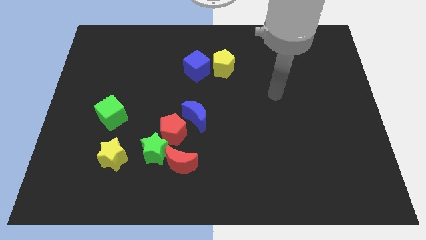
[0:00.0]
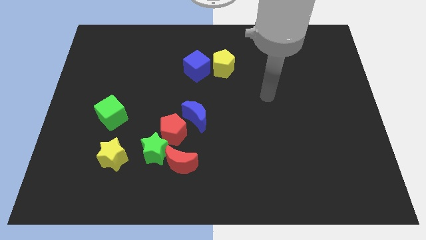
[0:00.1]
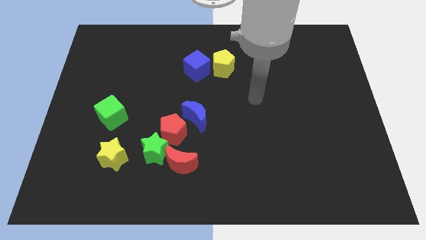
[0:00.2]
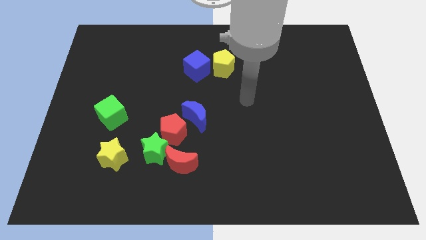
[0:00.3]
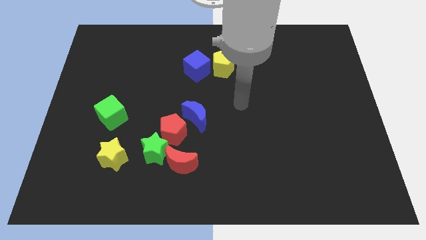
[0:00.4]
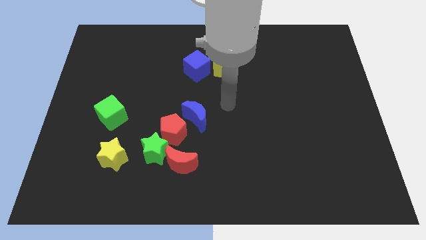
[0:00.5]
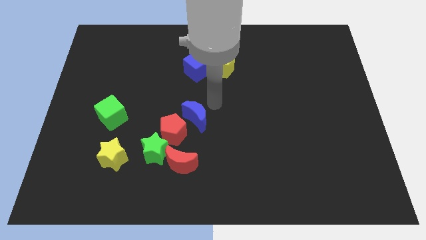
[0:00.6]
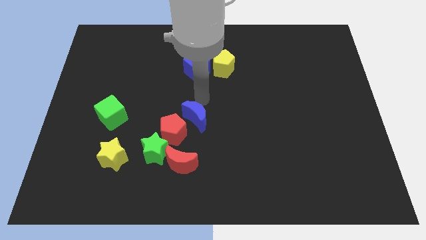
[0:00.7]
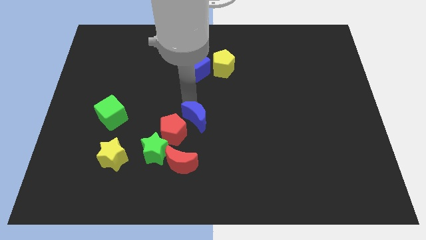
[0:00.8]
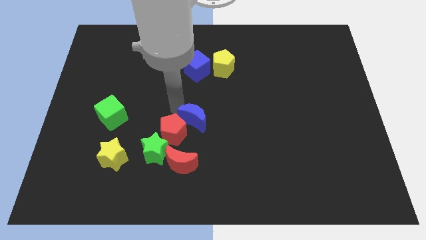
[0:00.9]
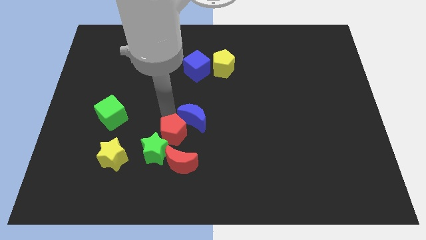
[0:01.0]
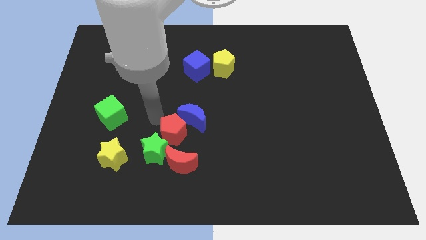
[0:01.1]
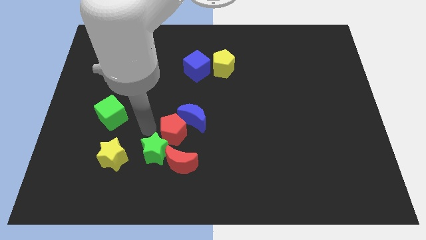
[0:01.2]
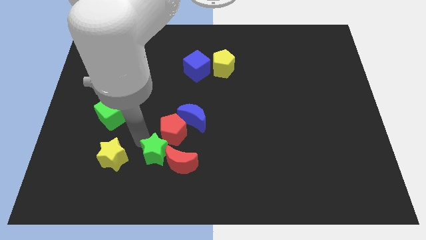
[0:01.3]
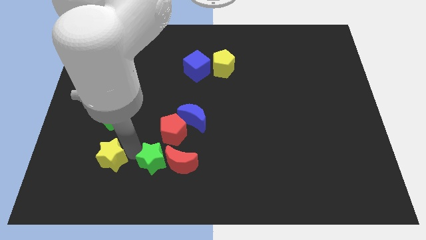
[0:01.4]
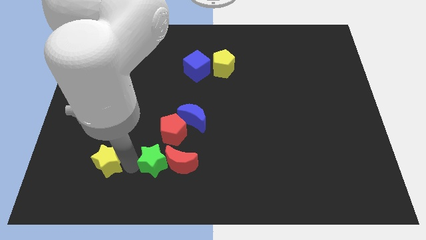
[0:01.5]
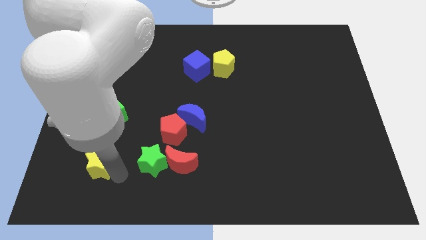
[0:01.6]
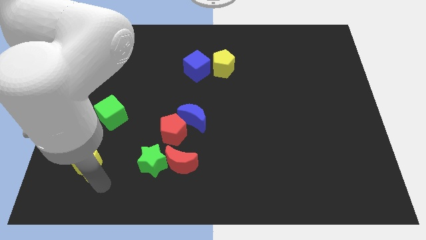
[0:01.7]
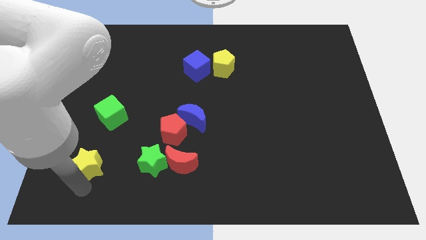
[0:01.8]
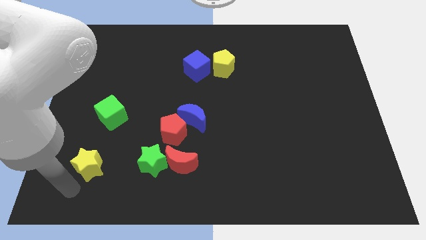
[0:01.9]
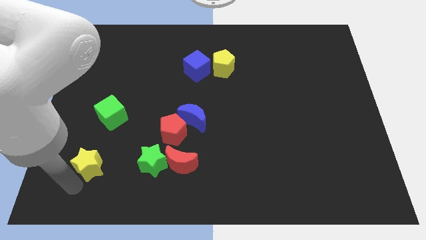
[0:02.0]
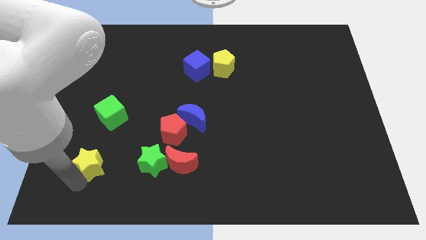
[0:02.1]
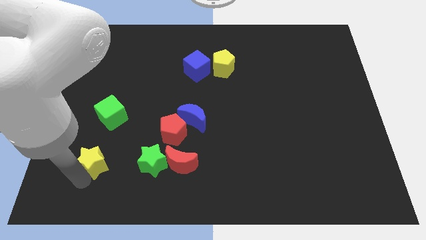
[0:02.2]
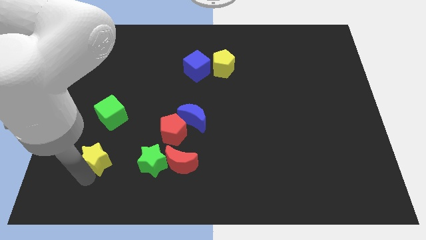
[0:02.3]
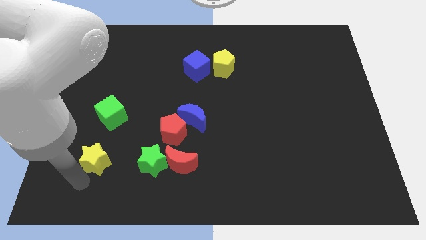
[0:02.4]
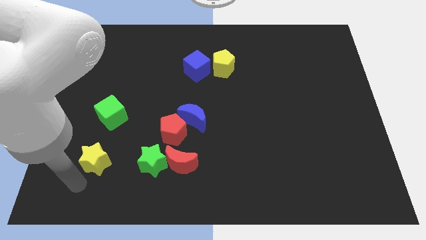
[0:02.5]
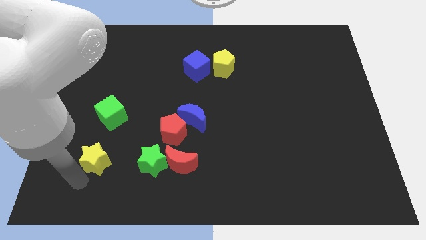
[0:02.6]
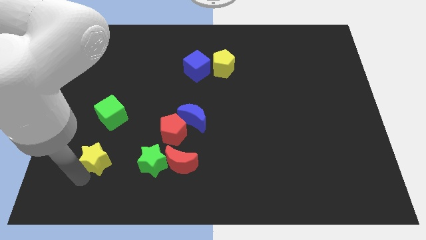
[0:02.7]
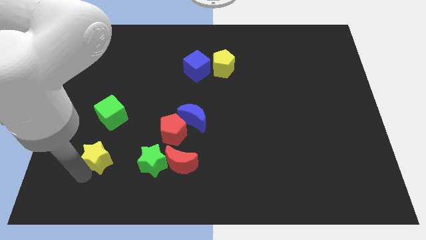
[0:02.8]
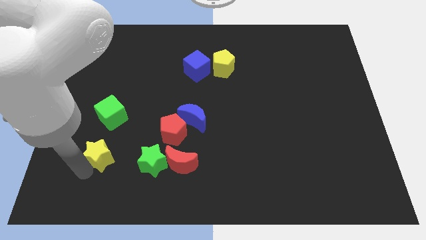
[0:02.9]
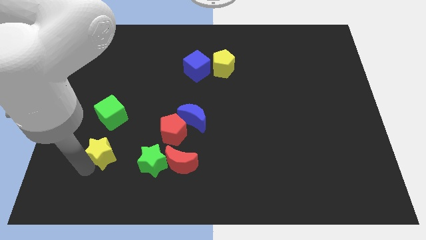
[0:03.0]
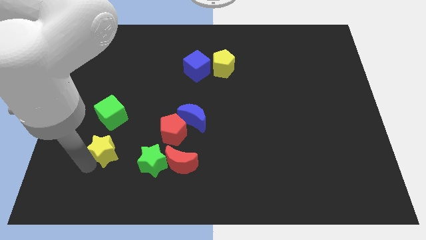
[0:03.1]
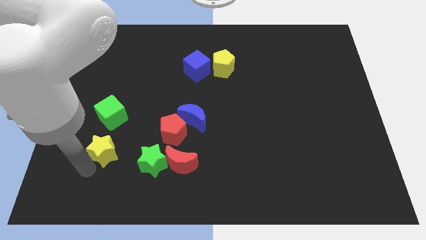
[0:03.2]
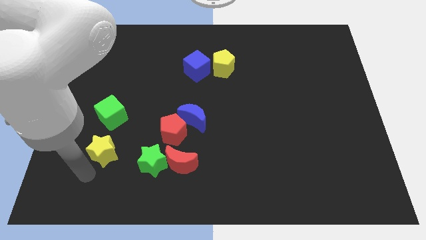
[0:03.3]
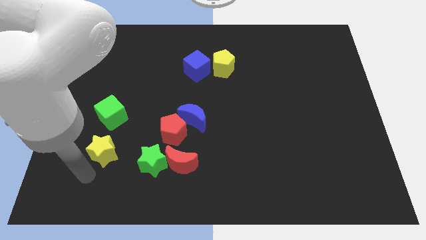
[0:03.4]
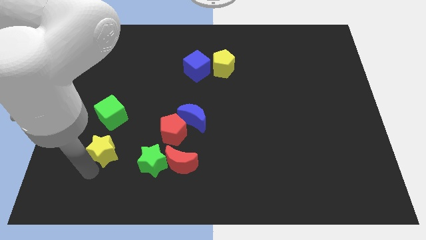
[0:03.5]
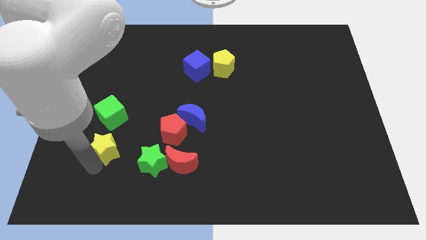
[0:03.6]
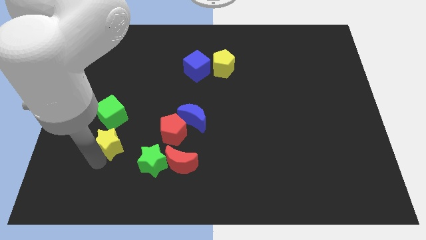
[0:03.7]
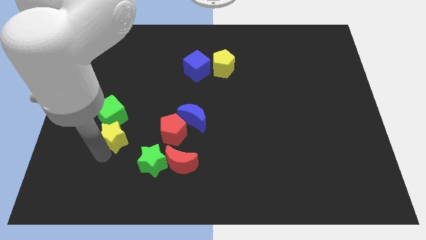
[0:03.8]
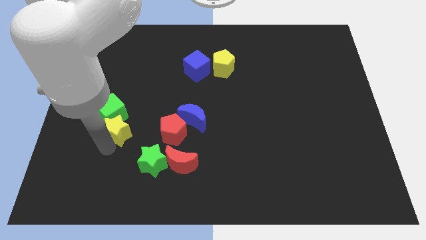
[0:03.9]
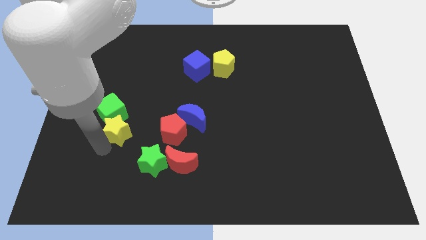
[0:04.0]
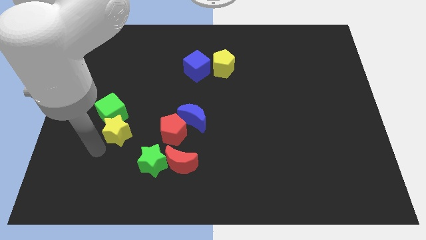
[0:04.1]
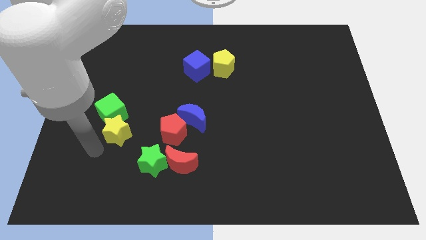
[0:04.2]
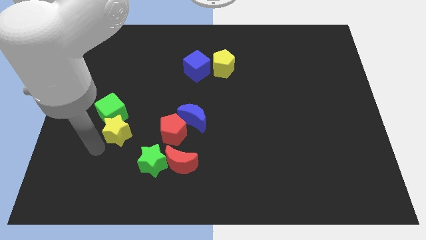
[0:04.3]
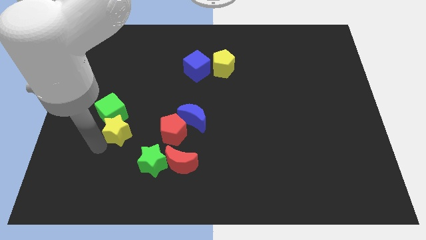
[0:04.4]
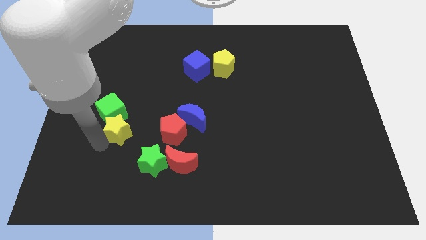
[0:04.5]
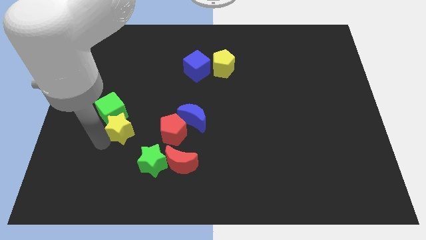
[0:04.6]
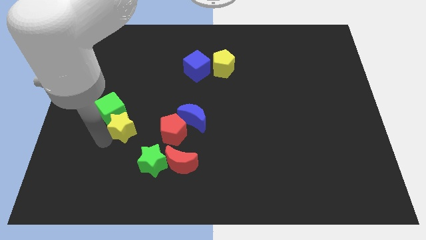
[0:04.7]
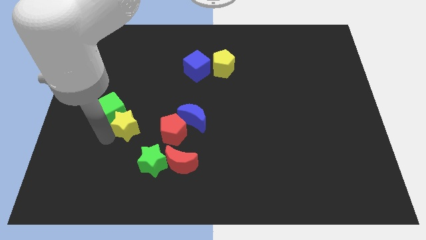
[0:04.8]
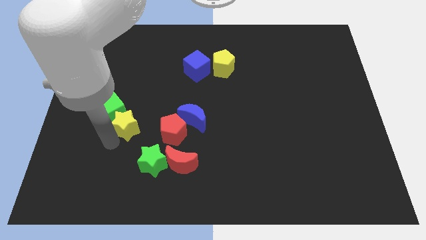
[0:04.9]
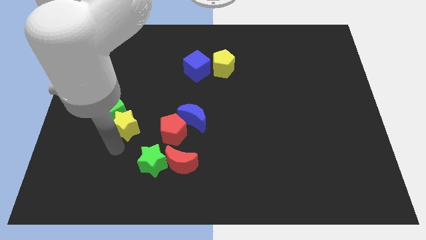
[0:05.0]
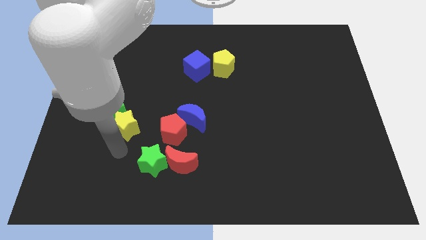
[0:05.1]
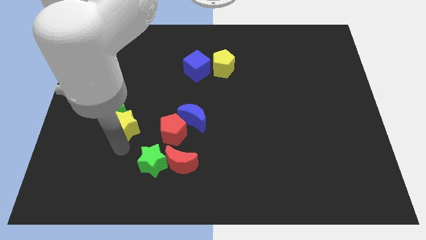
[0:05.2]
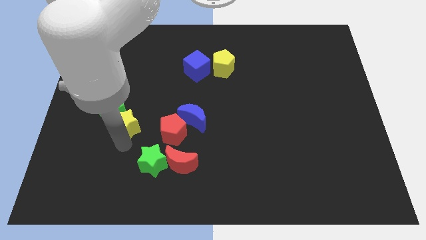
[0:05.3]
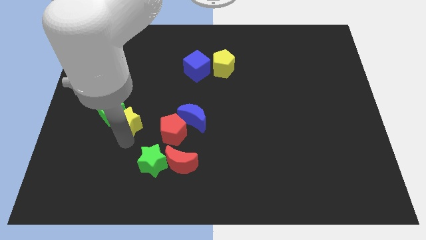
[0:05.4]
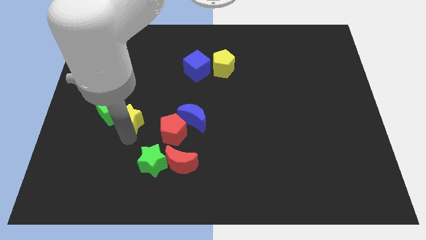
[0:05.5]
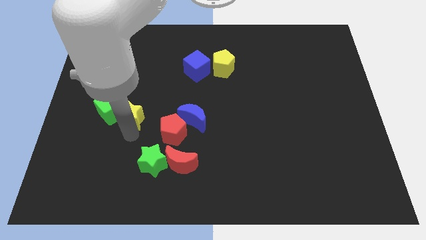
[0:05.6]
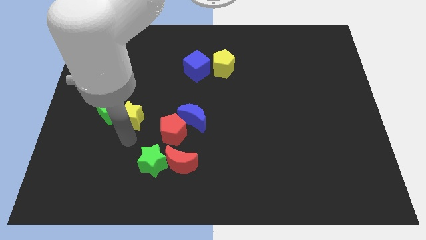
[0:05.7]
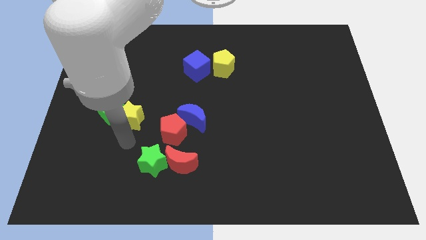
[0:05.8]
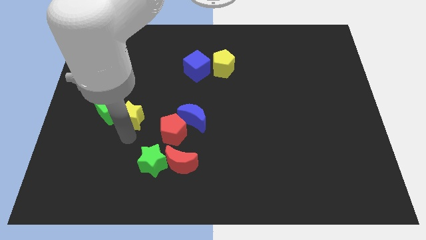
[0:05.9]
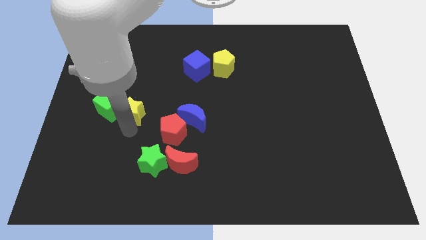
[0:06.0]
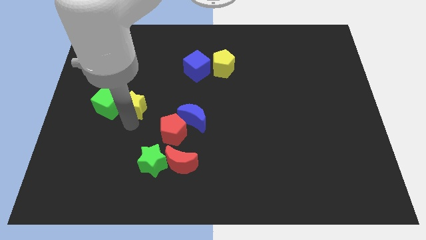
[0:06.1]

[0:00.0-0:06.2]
move the yellow star to the top right of the green cube

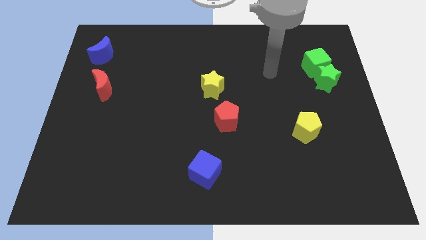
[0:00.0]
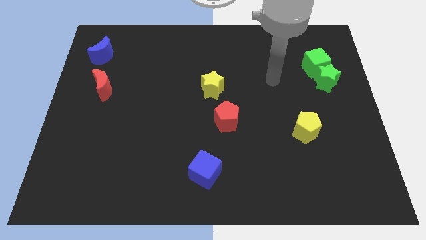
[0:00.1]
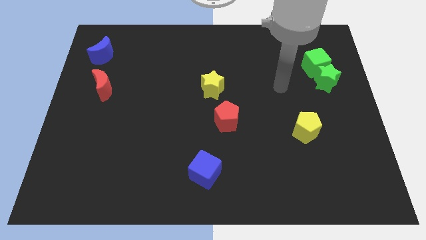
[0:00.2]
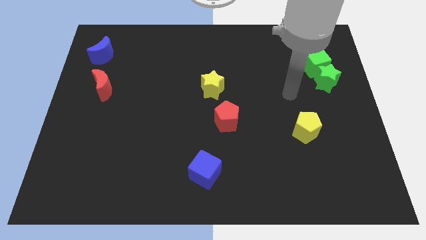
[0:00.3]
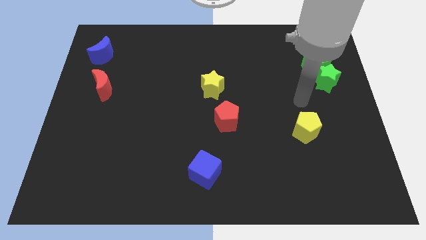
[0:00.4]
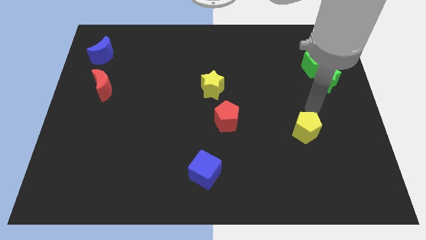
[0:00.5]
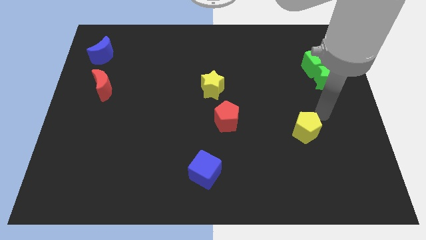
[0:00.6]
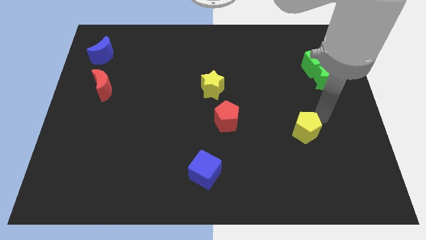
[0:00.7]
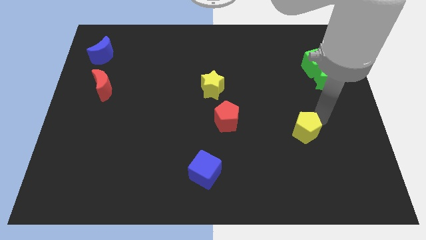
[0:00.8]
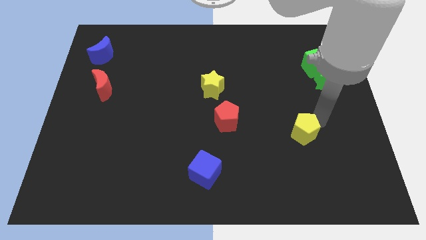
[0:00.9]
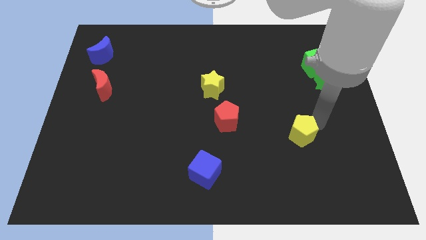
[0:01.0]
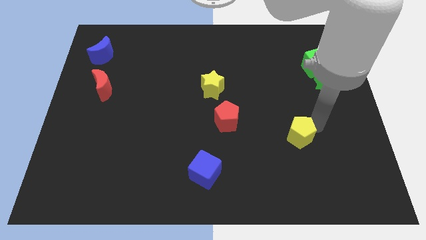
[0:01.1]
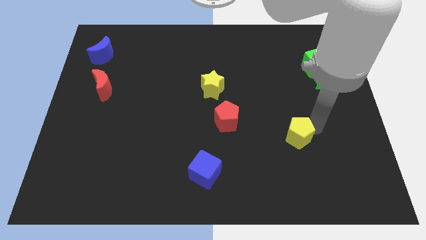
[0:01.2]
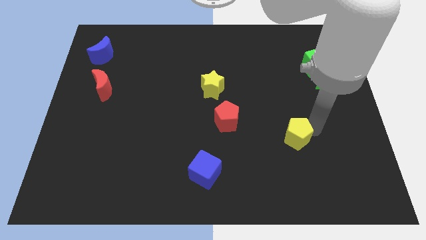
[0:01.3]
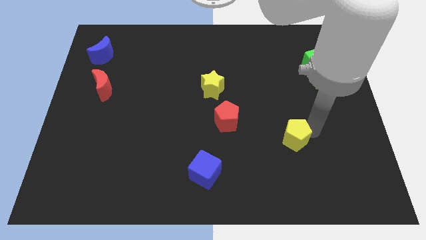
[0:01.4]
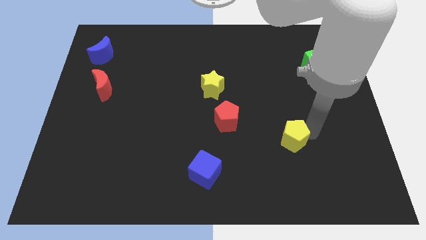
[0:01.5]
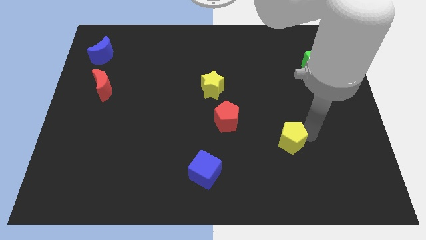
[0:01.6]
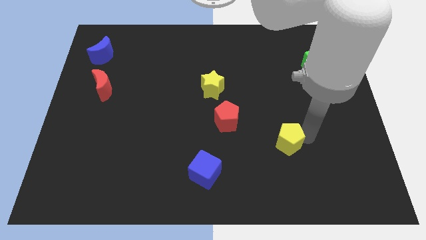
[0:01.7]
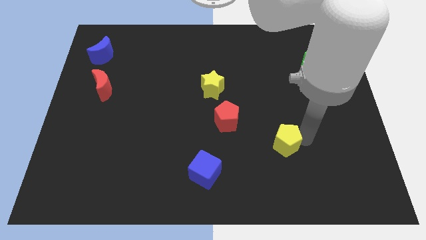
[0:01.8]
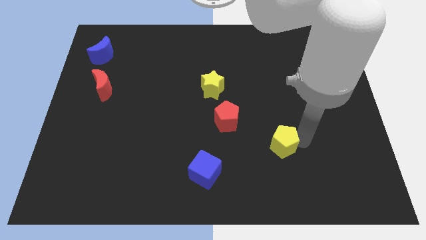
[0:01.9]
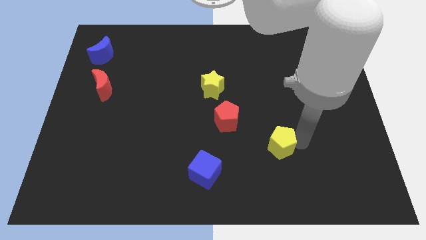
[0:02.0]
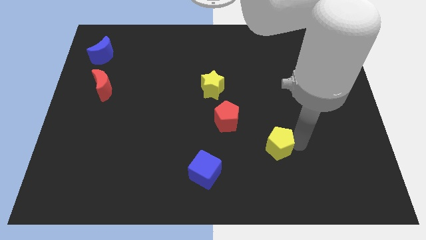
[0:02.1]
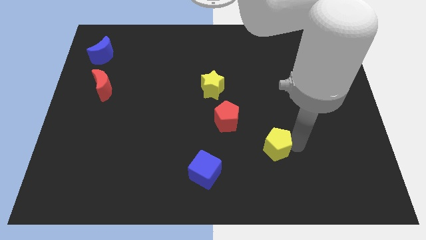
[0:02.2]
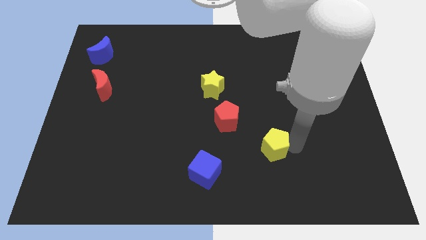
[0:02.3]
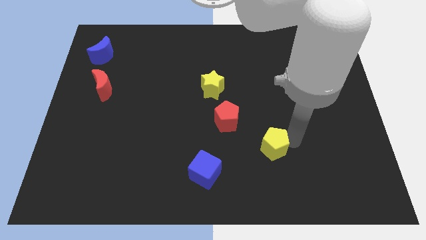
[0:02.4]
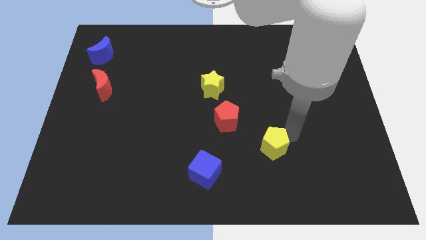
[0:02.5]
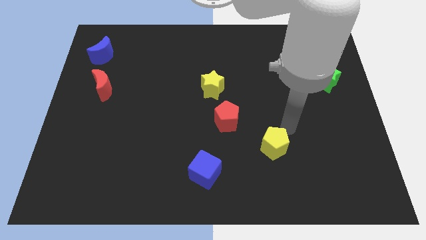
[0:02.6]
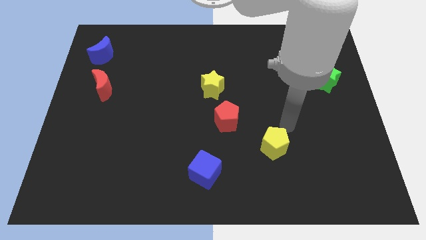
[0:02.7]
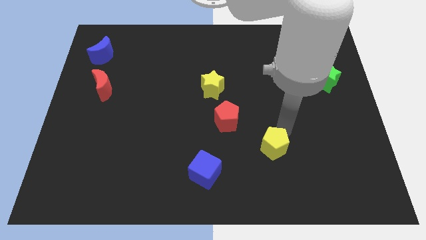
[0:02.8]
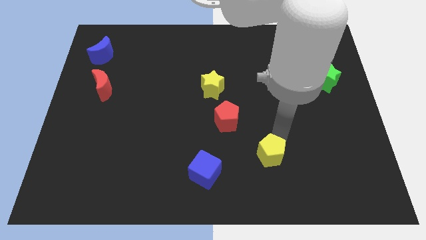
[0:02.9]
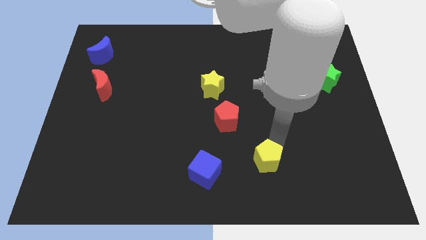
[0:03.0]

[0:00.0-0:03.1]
put the yellow pentagon to the right side of the blue cube
